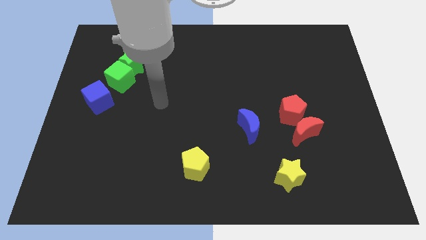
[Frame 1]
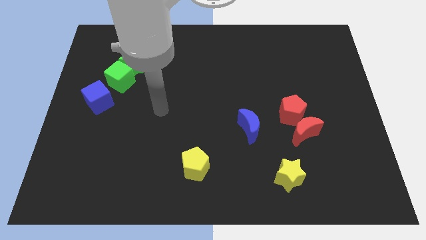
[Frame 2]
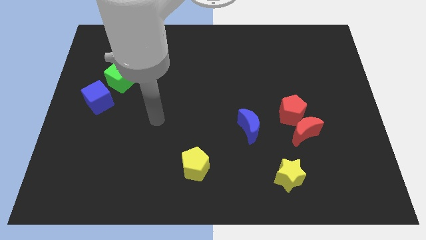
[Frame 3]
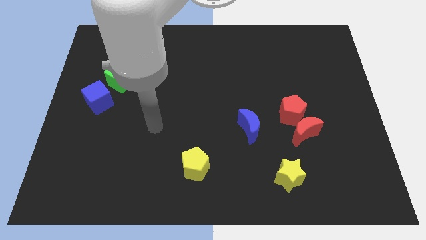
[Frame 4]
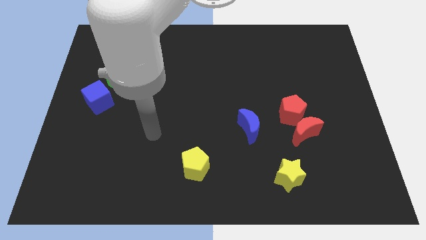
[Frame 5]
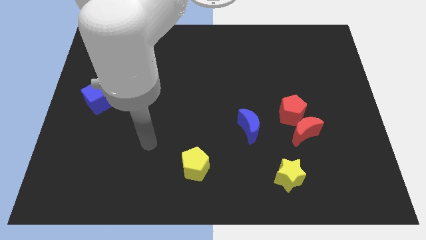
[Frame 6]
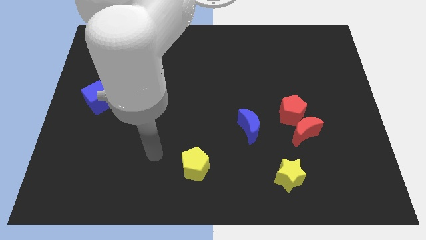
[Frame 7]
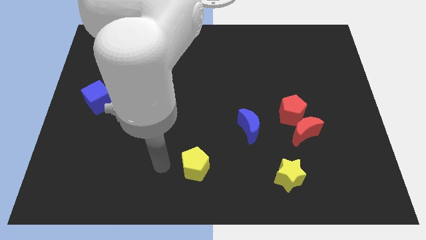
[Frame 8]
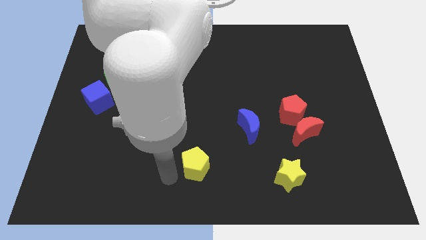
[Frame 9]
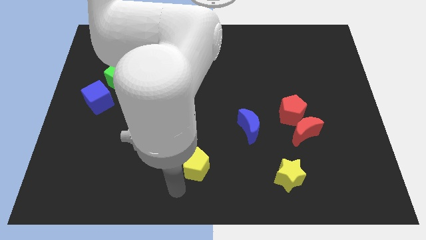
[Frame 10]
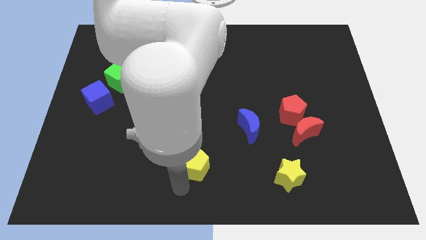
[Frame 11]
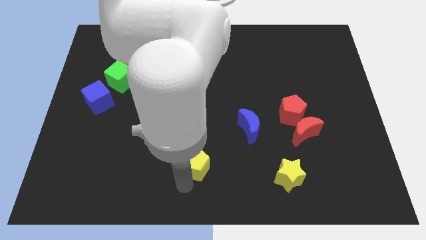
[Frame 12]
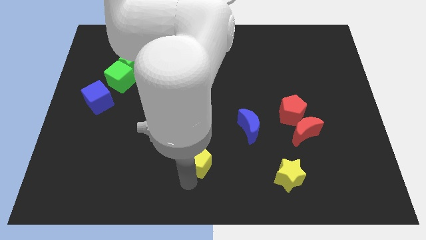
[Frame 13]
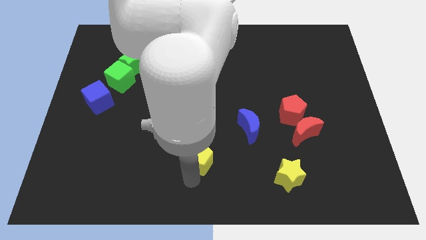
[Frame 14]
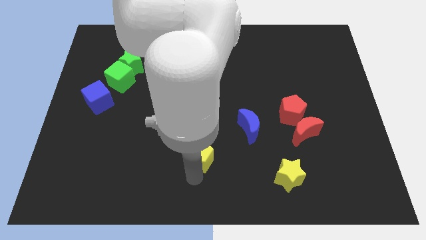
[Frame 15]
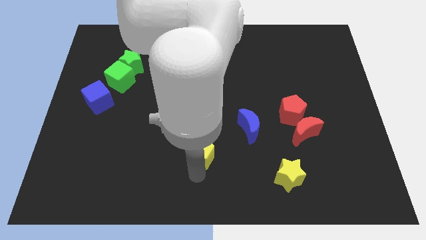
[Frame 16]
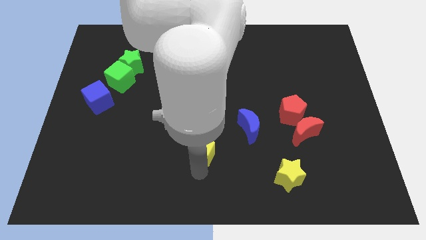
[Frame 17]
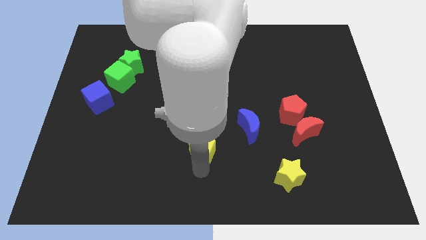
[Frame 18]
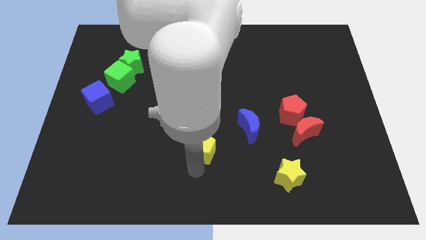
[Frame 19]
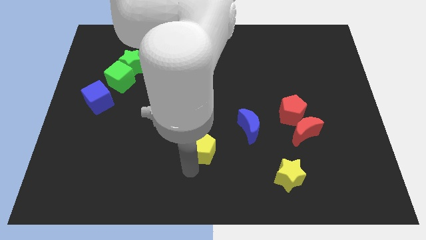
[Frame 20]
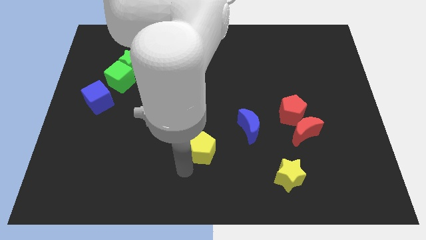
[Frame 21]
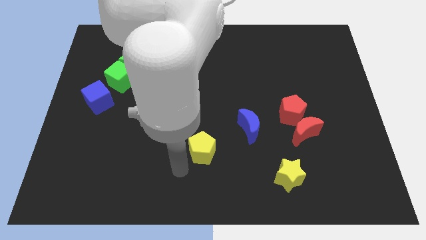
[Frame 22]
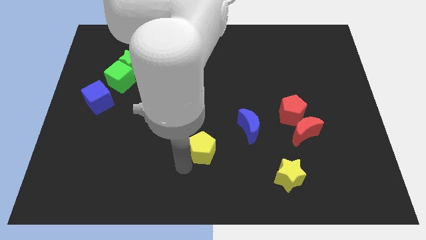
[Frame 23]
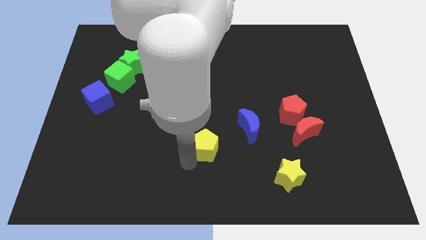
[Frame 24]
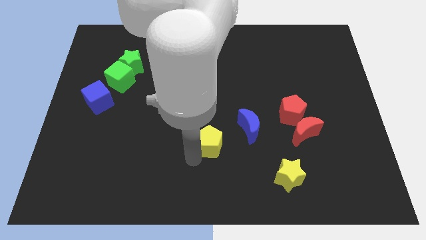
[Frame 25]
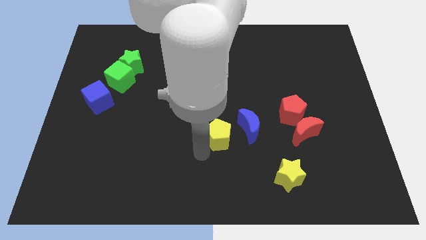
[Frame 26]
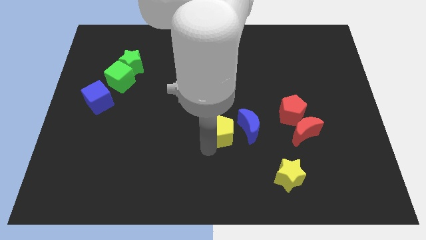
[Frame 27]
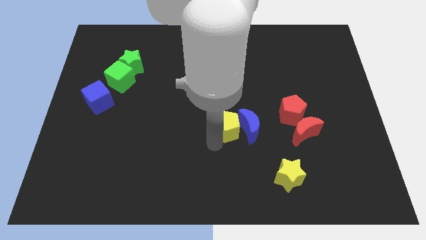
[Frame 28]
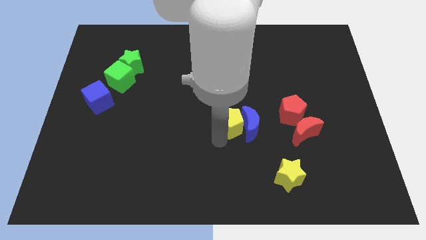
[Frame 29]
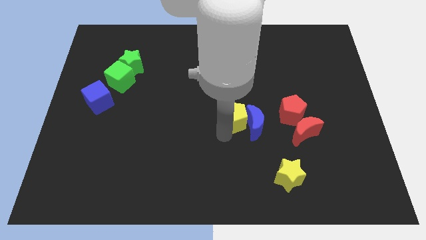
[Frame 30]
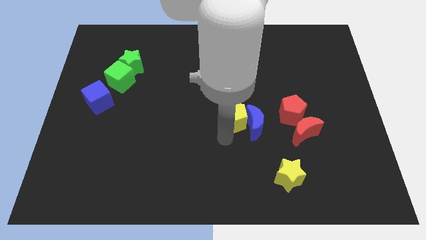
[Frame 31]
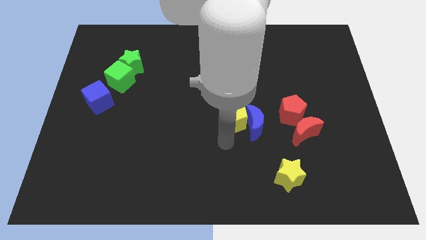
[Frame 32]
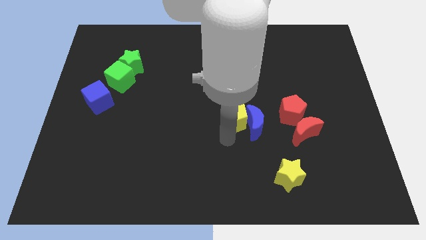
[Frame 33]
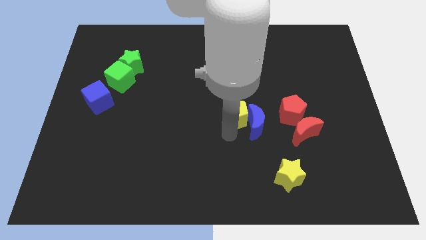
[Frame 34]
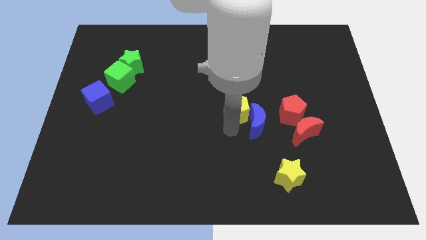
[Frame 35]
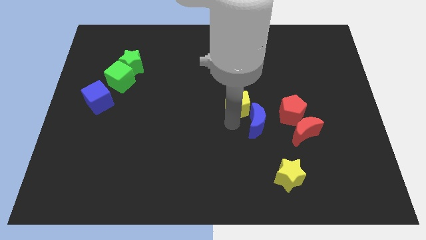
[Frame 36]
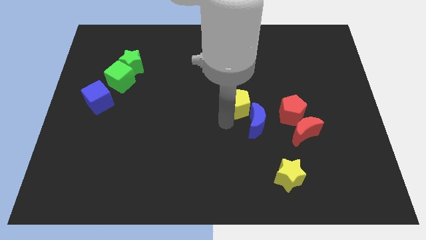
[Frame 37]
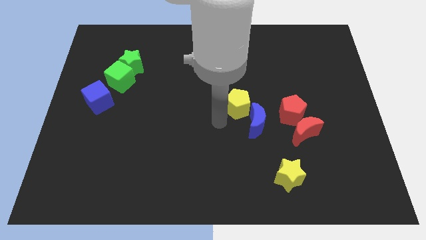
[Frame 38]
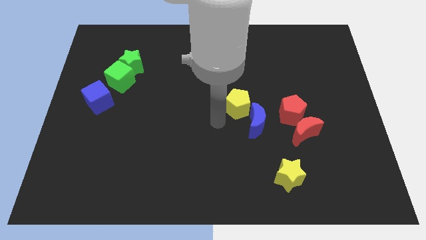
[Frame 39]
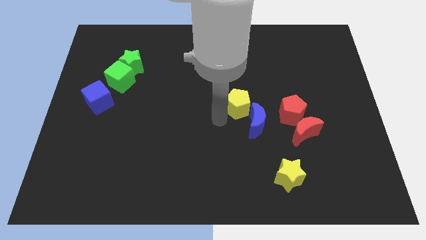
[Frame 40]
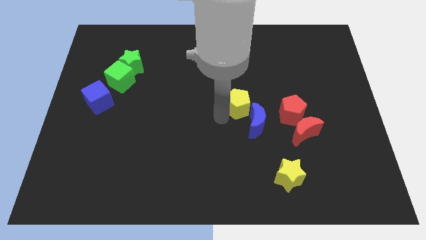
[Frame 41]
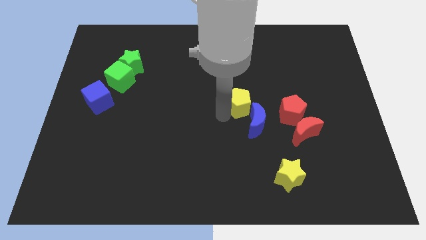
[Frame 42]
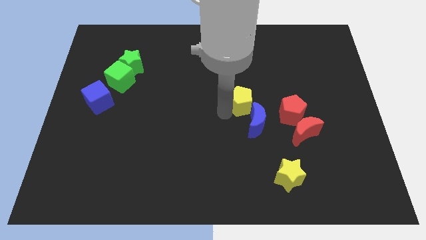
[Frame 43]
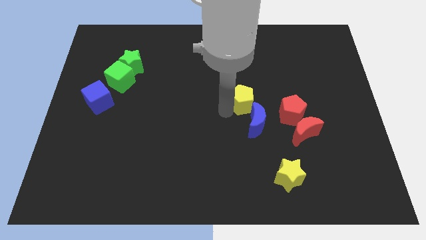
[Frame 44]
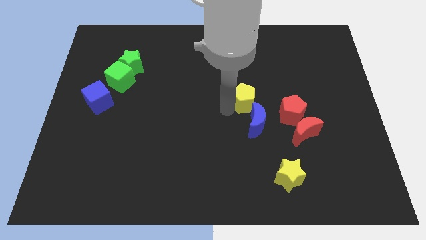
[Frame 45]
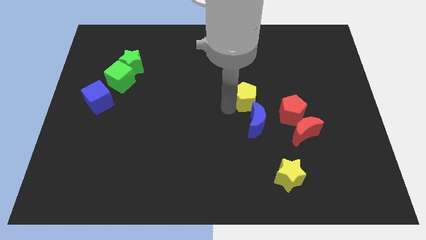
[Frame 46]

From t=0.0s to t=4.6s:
slide the yellow pentagon diagonally upwards and right

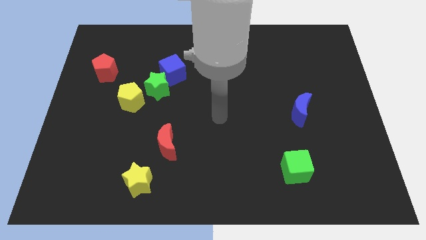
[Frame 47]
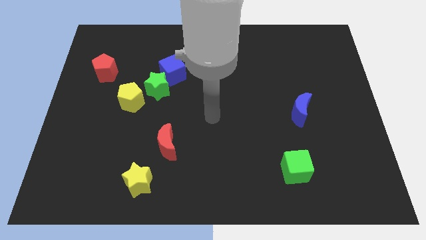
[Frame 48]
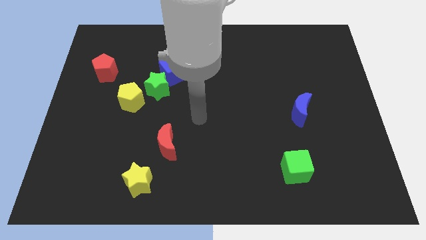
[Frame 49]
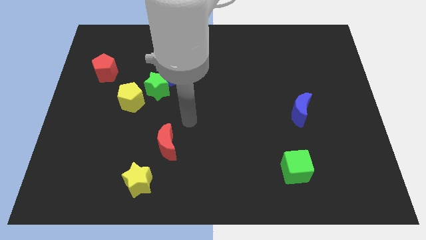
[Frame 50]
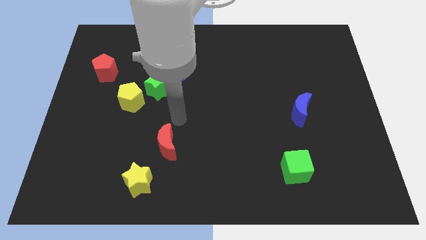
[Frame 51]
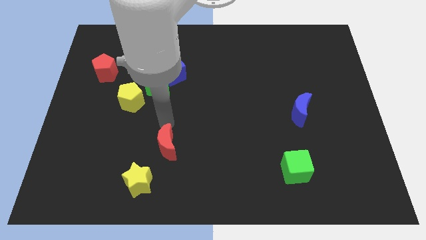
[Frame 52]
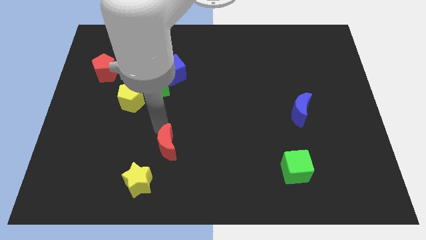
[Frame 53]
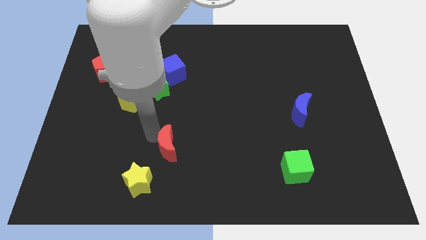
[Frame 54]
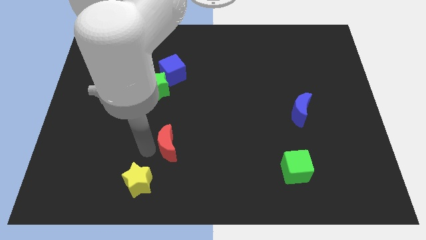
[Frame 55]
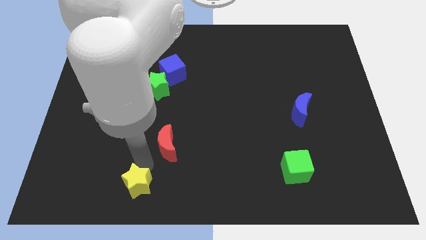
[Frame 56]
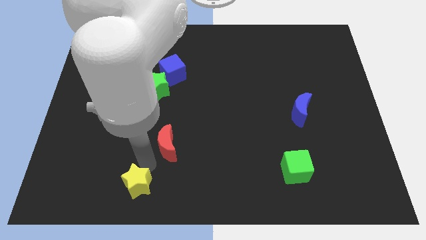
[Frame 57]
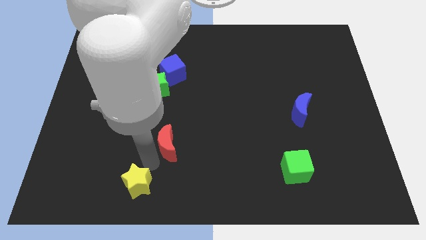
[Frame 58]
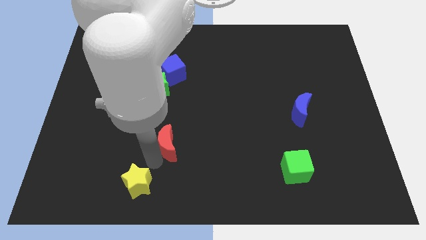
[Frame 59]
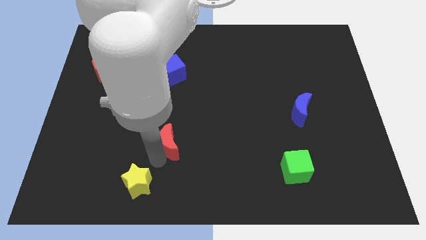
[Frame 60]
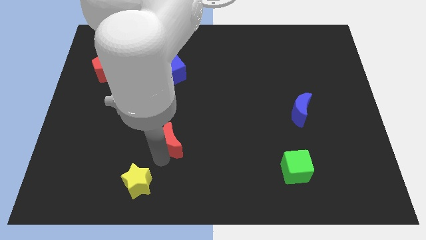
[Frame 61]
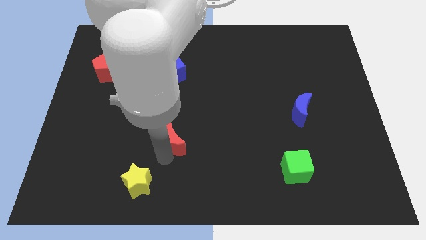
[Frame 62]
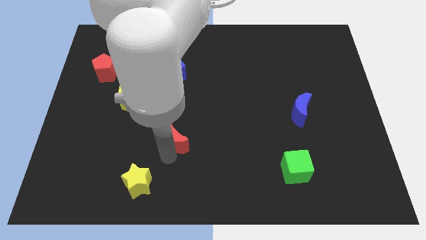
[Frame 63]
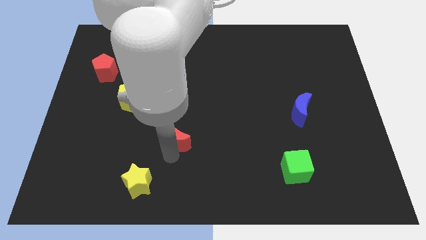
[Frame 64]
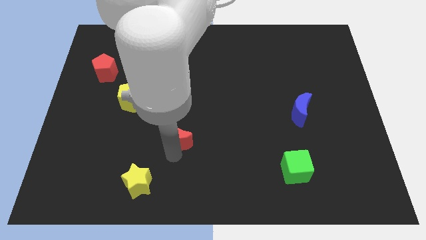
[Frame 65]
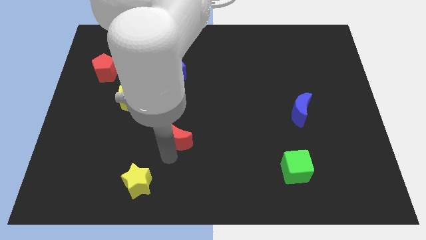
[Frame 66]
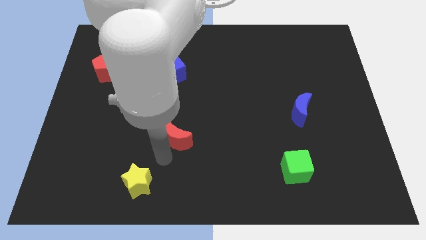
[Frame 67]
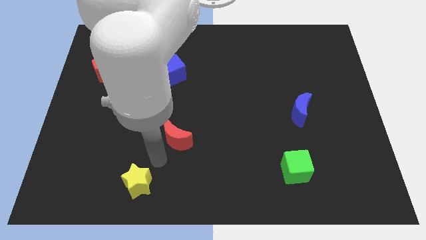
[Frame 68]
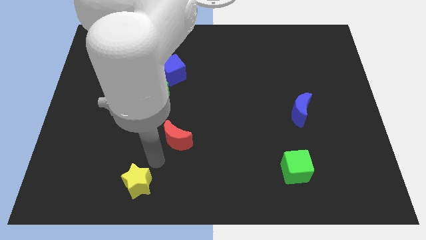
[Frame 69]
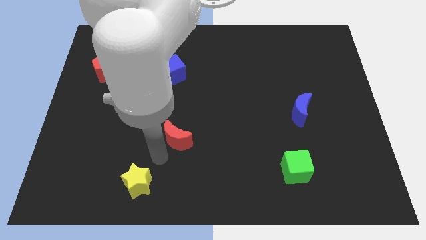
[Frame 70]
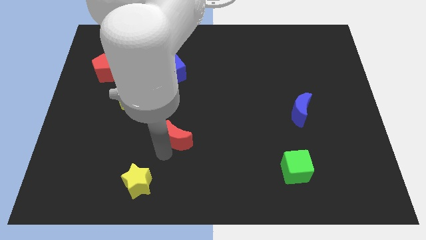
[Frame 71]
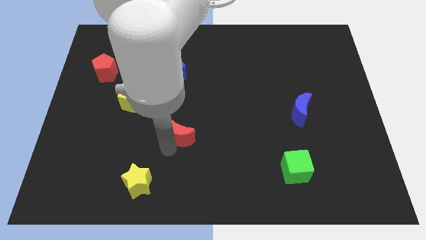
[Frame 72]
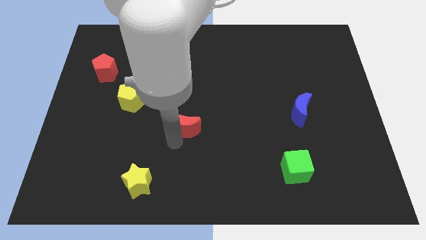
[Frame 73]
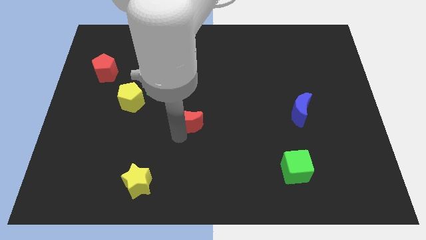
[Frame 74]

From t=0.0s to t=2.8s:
slide the red moon a bit diagonally up and right

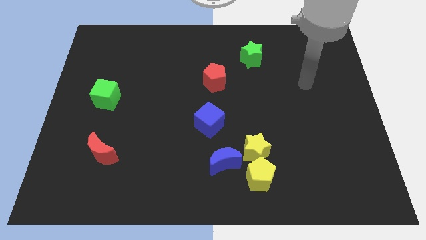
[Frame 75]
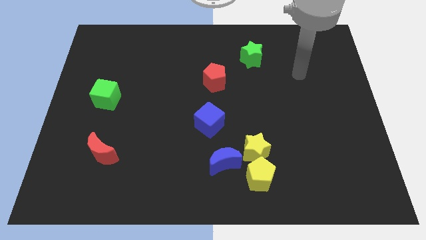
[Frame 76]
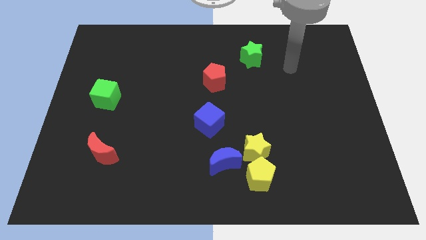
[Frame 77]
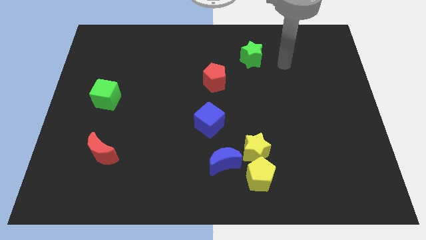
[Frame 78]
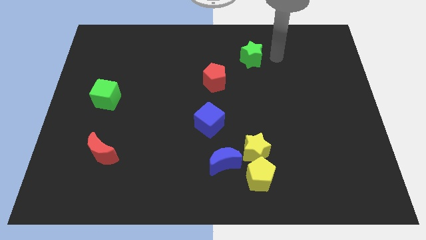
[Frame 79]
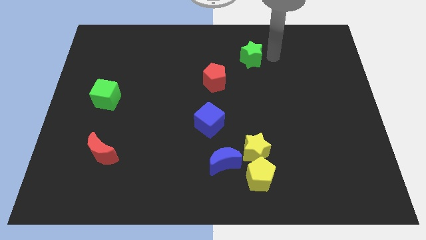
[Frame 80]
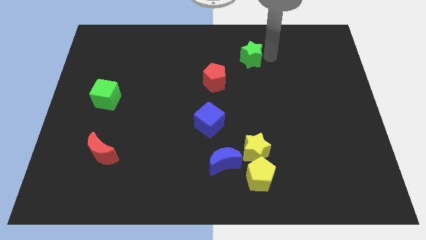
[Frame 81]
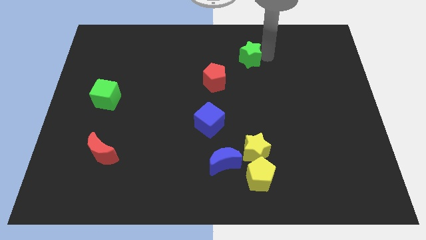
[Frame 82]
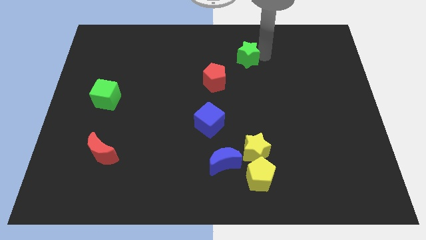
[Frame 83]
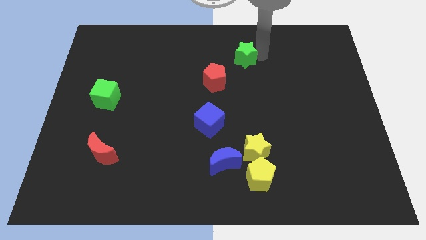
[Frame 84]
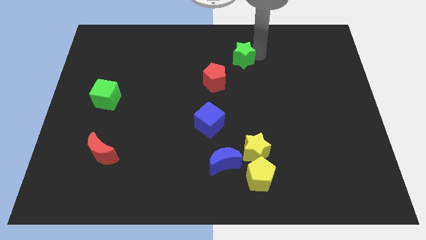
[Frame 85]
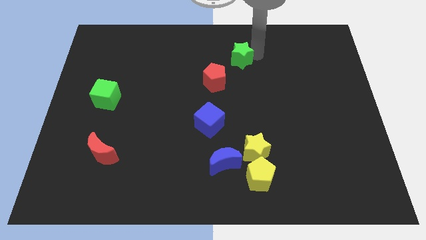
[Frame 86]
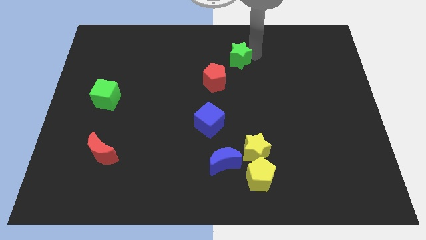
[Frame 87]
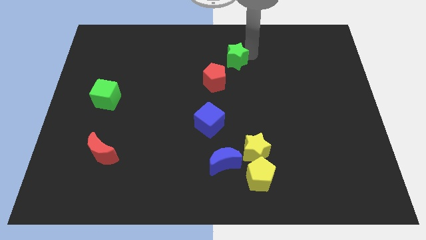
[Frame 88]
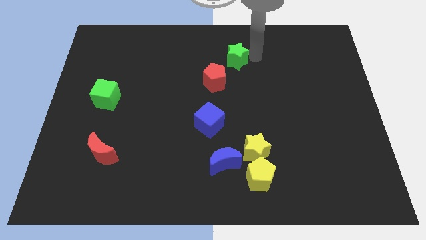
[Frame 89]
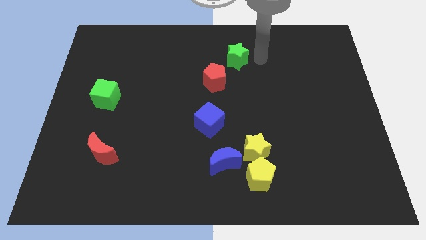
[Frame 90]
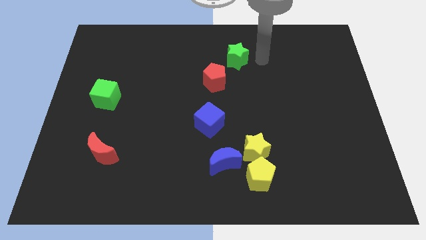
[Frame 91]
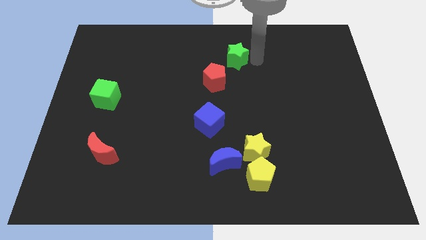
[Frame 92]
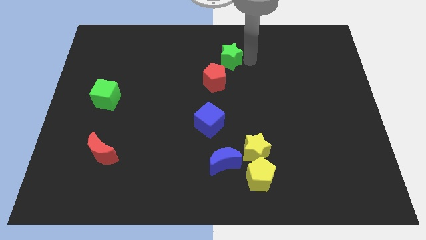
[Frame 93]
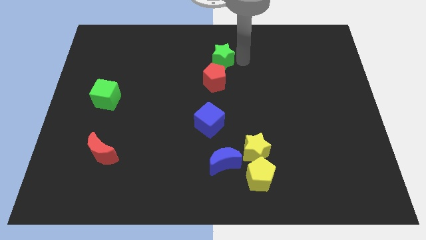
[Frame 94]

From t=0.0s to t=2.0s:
move the green star left a little
